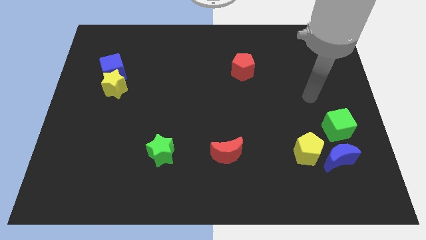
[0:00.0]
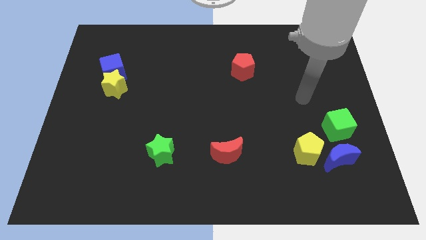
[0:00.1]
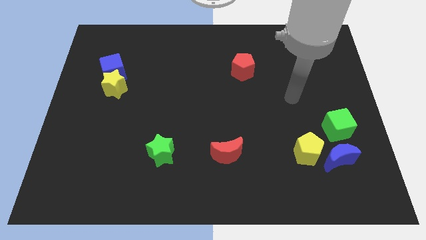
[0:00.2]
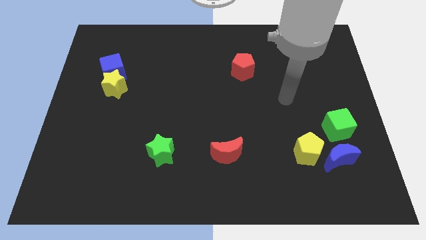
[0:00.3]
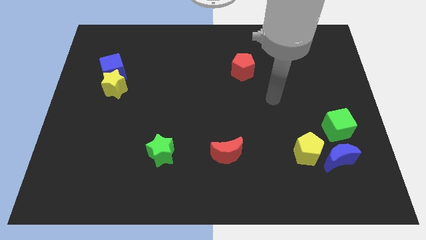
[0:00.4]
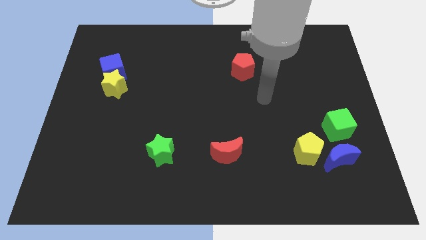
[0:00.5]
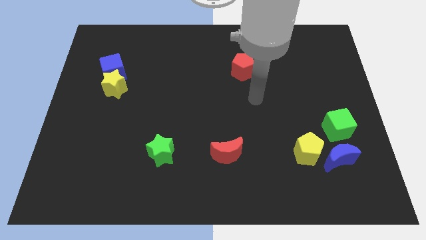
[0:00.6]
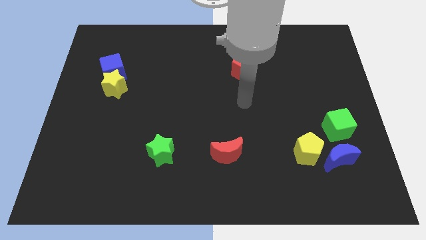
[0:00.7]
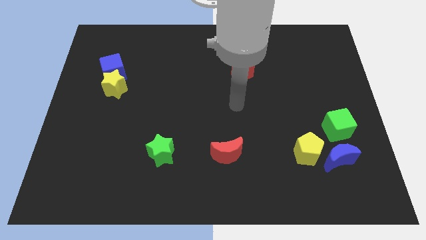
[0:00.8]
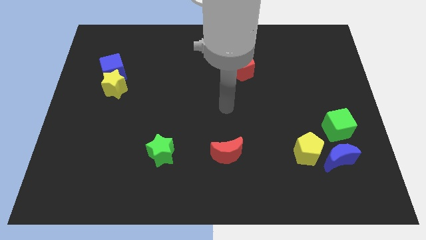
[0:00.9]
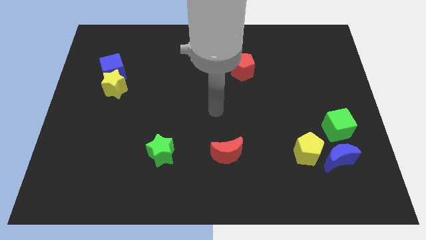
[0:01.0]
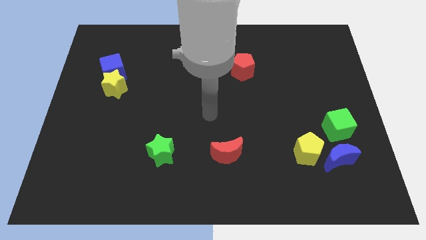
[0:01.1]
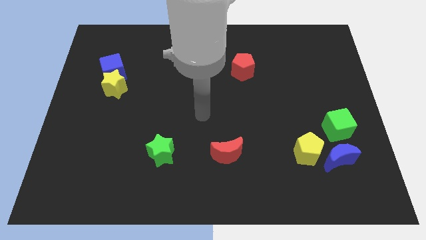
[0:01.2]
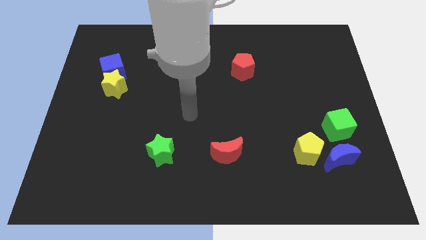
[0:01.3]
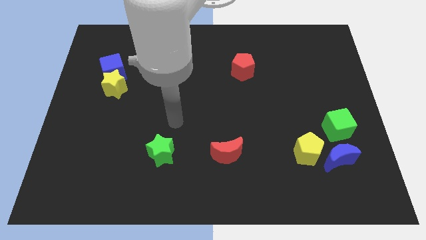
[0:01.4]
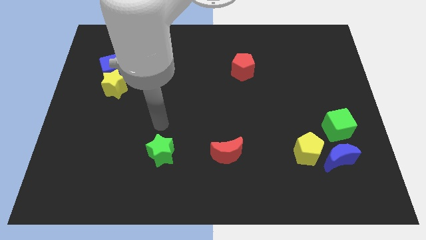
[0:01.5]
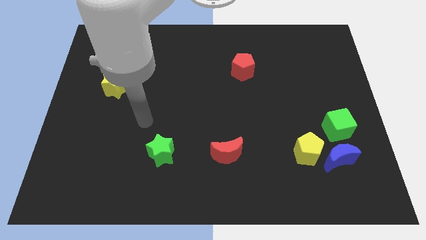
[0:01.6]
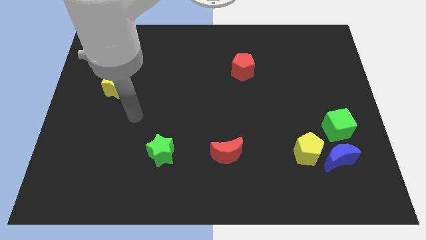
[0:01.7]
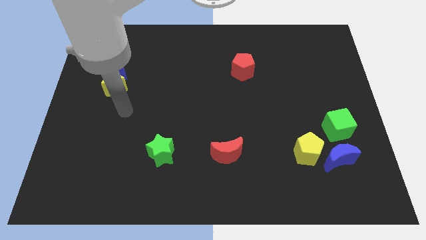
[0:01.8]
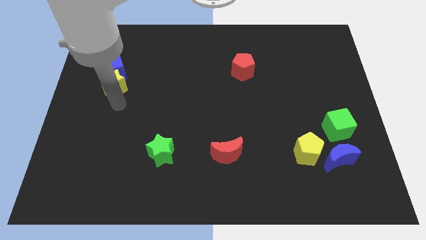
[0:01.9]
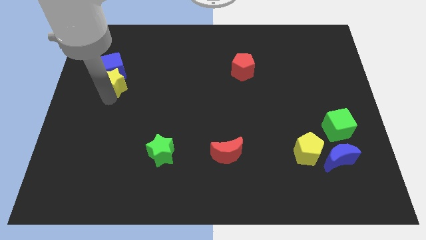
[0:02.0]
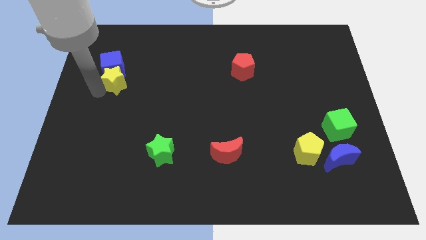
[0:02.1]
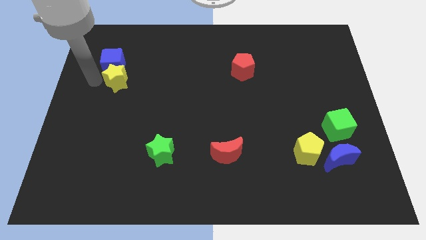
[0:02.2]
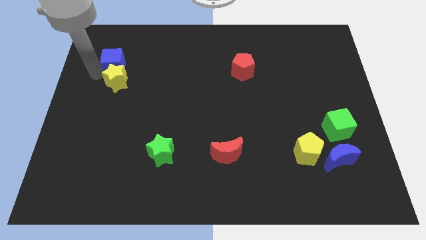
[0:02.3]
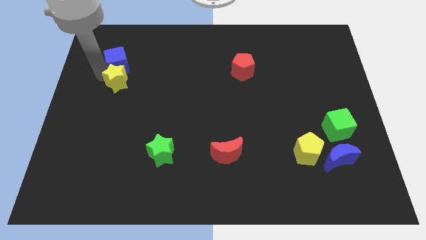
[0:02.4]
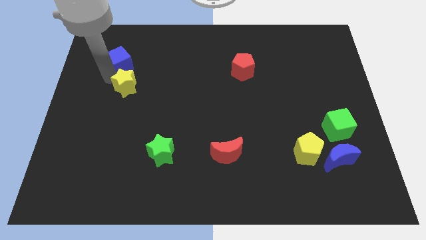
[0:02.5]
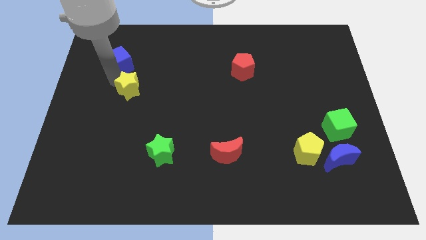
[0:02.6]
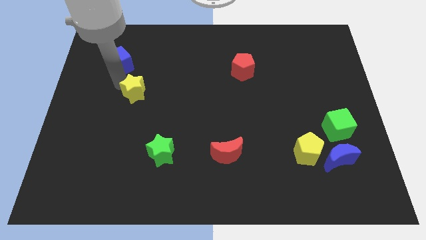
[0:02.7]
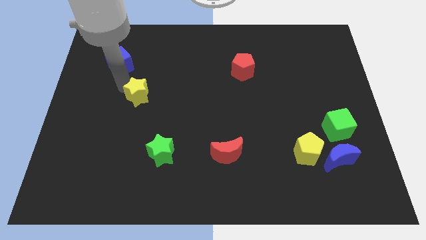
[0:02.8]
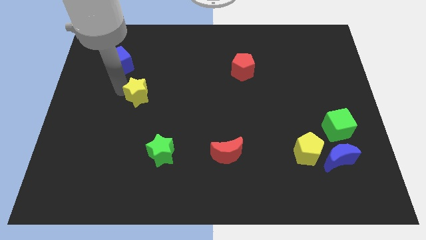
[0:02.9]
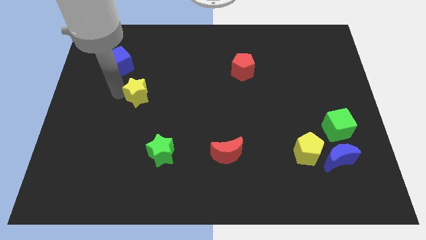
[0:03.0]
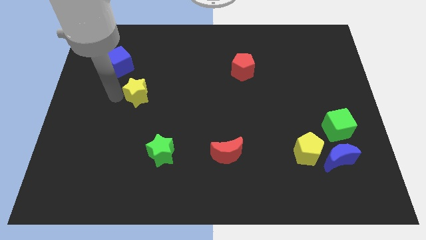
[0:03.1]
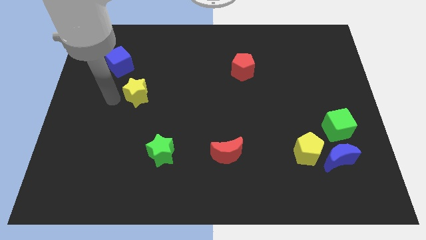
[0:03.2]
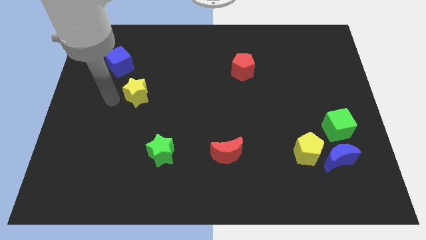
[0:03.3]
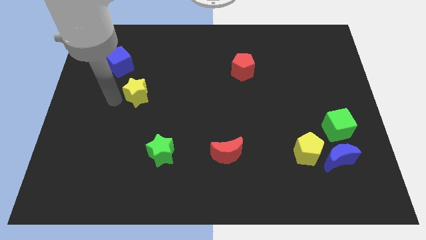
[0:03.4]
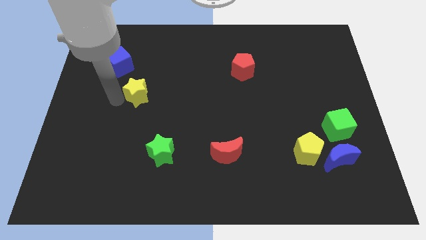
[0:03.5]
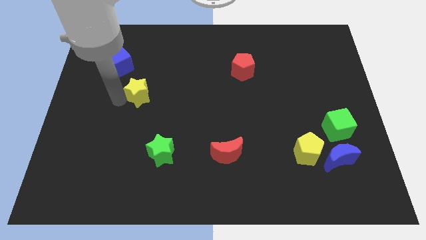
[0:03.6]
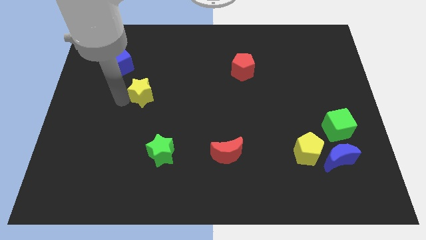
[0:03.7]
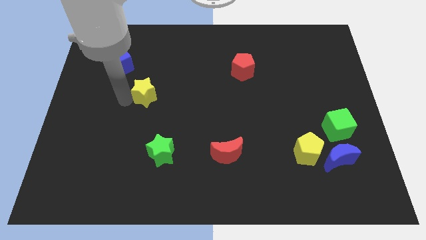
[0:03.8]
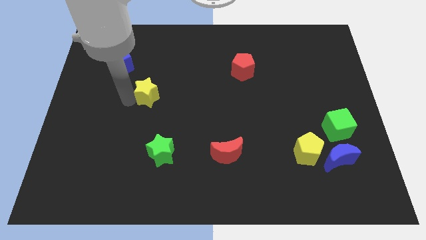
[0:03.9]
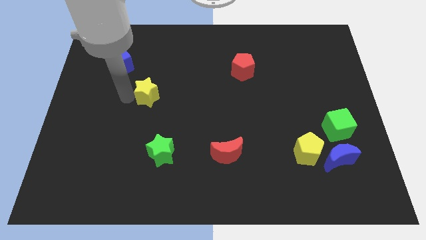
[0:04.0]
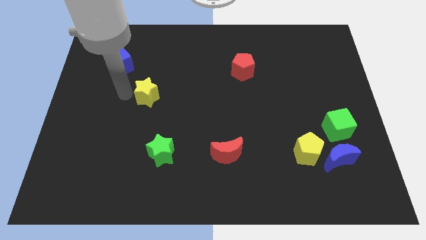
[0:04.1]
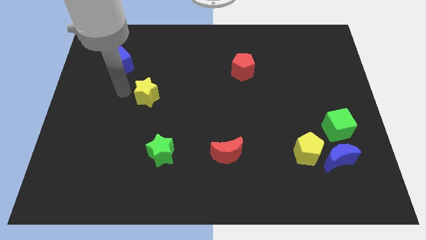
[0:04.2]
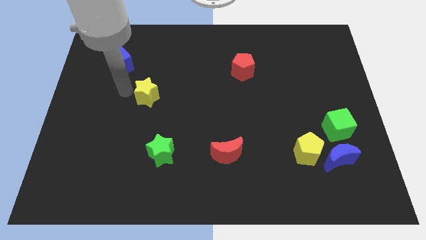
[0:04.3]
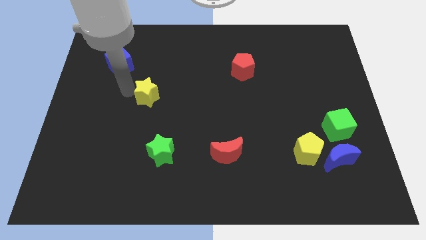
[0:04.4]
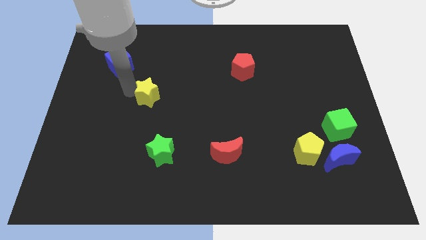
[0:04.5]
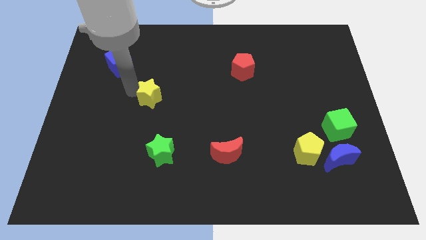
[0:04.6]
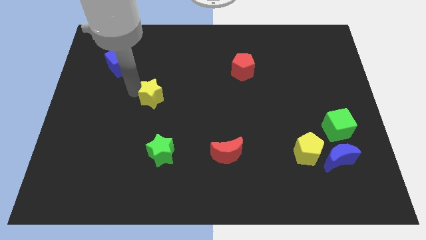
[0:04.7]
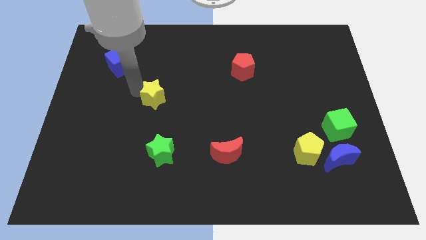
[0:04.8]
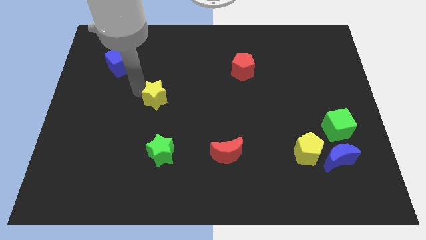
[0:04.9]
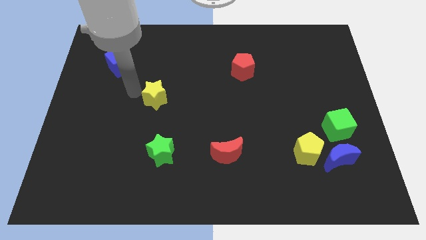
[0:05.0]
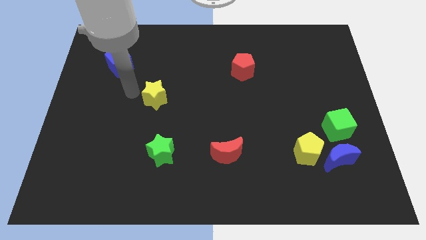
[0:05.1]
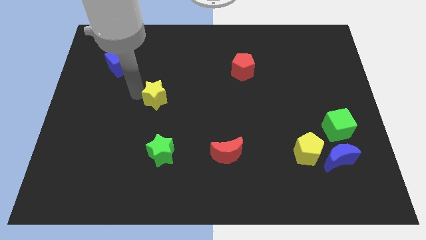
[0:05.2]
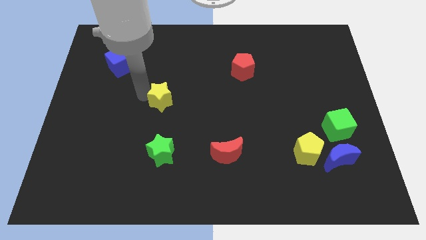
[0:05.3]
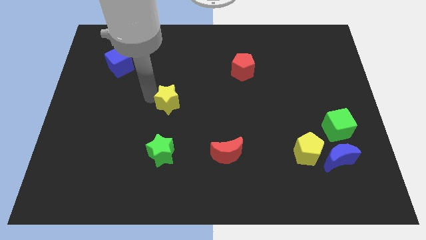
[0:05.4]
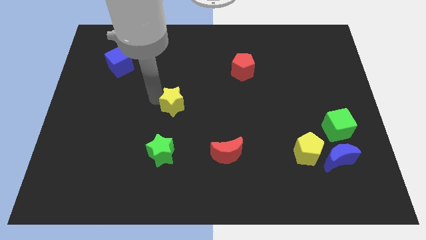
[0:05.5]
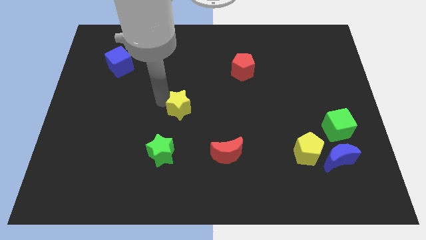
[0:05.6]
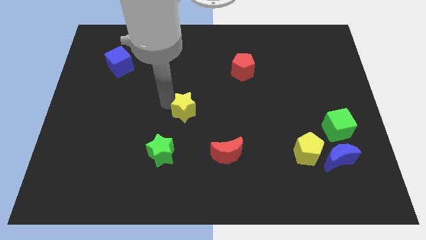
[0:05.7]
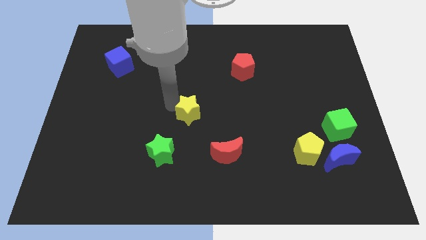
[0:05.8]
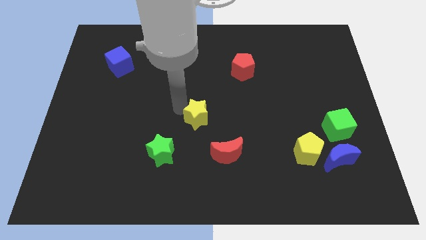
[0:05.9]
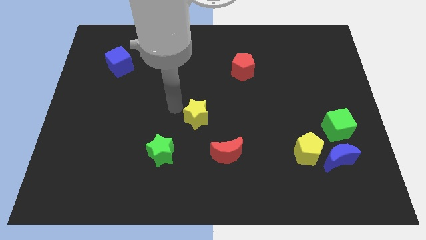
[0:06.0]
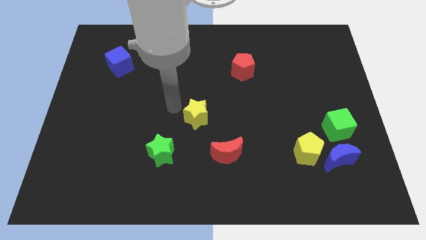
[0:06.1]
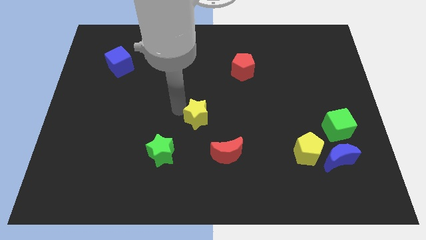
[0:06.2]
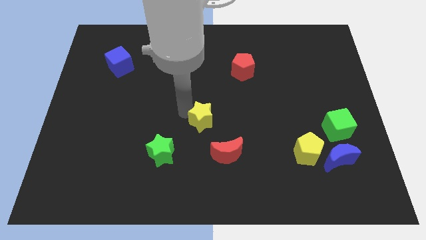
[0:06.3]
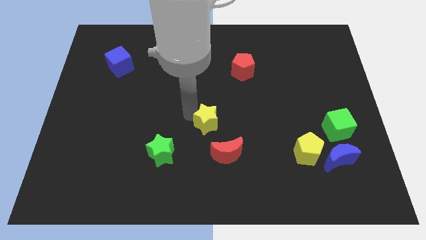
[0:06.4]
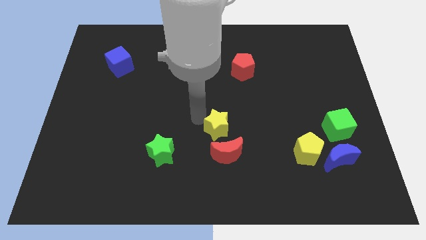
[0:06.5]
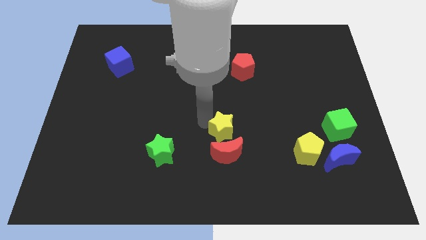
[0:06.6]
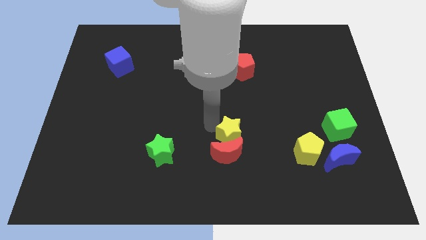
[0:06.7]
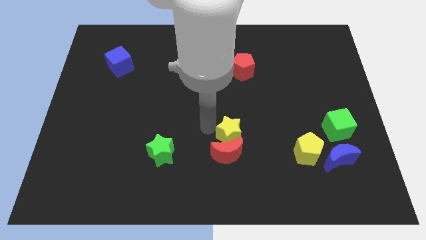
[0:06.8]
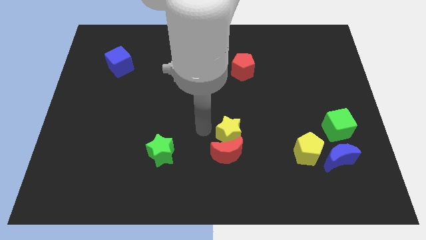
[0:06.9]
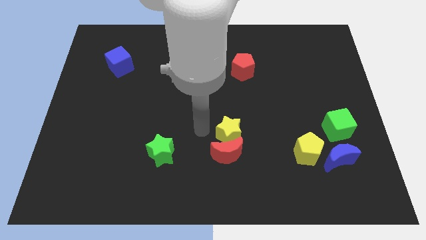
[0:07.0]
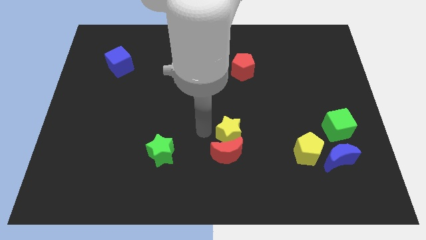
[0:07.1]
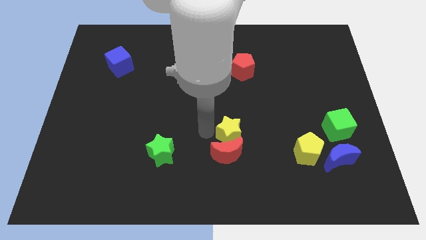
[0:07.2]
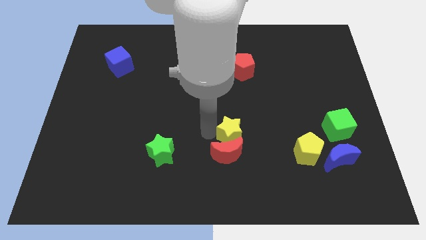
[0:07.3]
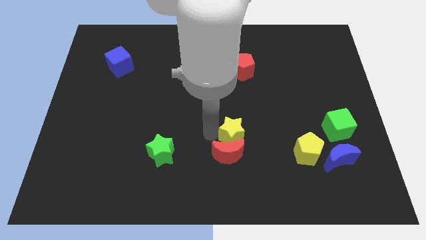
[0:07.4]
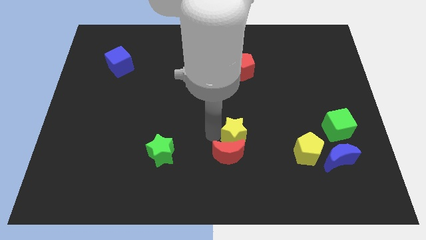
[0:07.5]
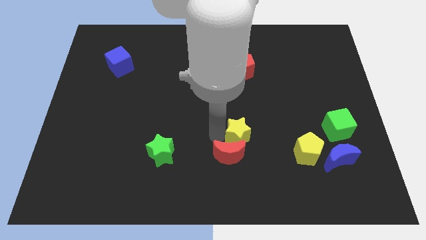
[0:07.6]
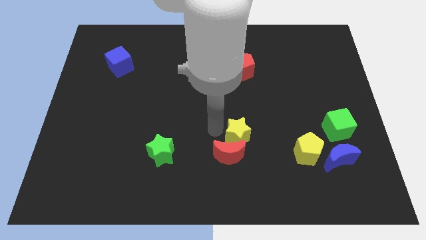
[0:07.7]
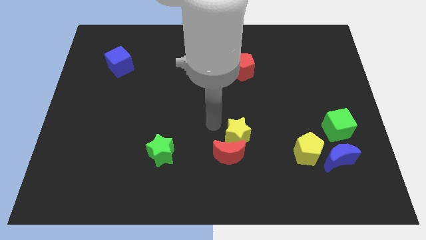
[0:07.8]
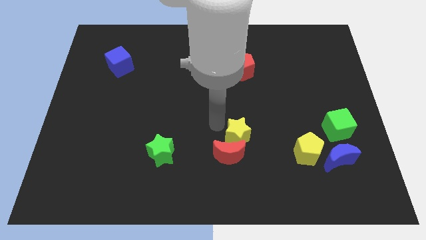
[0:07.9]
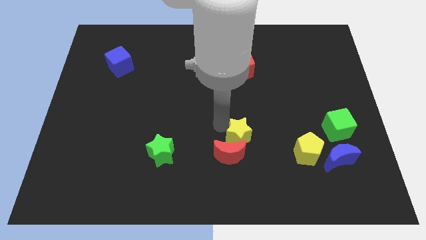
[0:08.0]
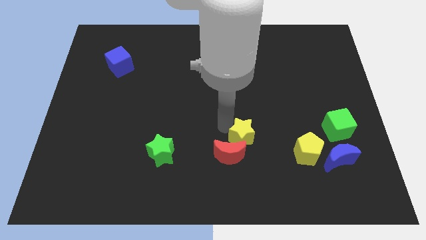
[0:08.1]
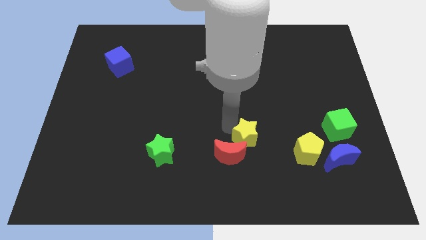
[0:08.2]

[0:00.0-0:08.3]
slide the yellow star right of the red moon
